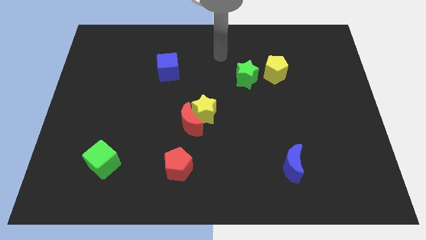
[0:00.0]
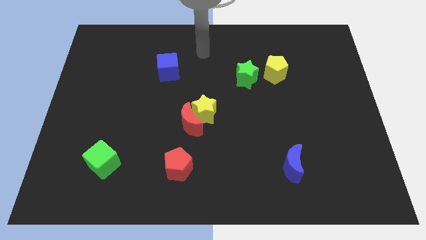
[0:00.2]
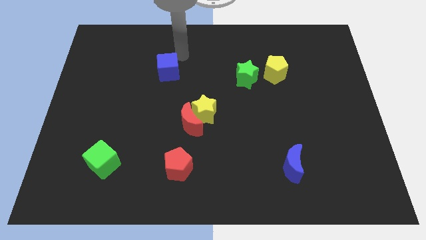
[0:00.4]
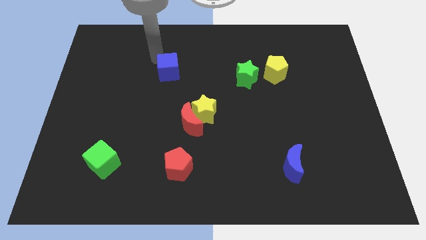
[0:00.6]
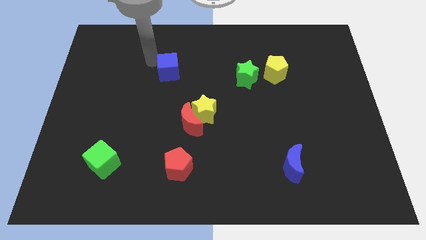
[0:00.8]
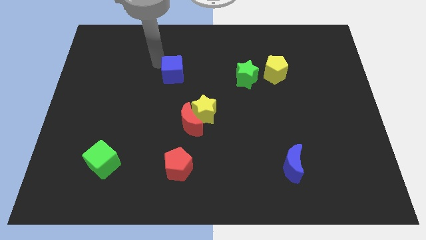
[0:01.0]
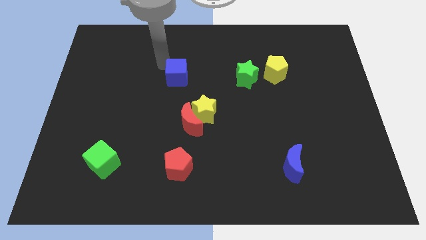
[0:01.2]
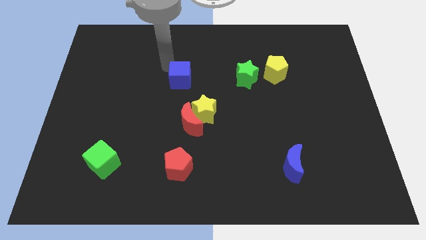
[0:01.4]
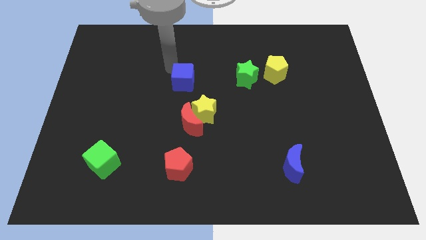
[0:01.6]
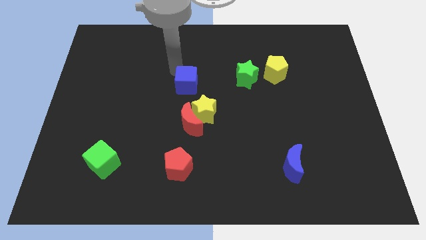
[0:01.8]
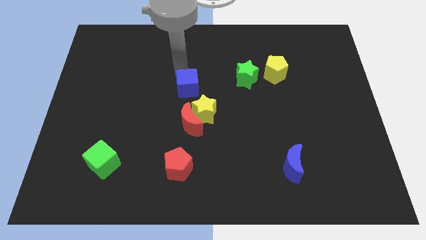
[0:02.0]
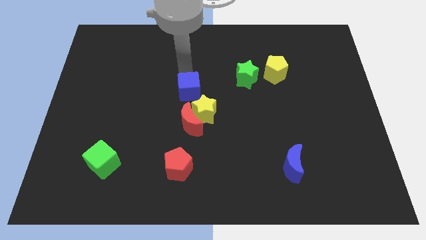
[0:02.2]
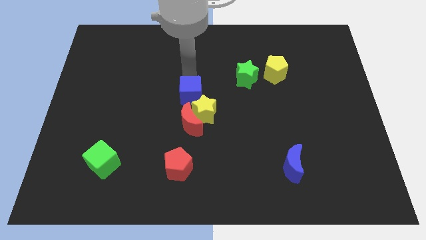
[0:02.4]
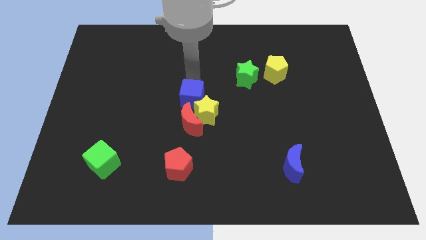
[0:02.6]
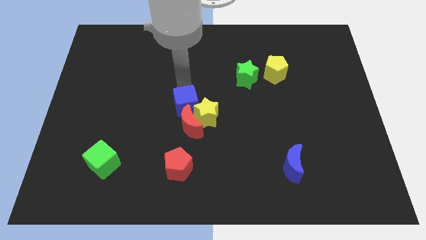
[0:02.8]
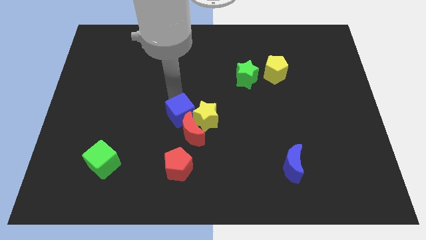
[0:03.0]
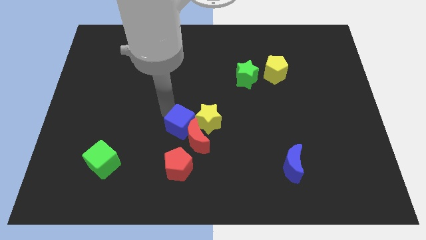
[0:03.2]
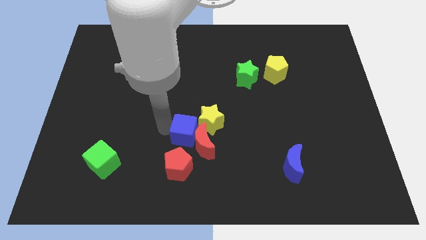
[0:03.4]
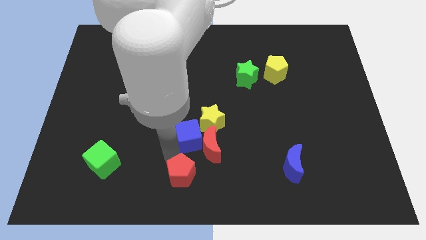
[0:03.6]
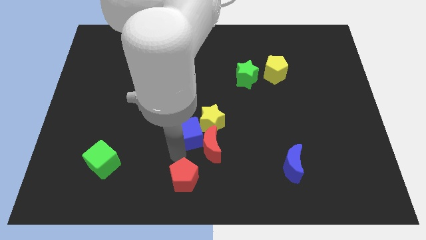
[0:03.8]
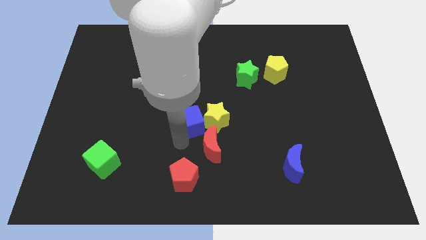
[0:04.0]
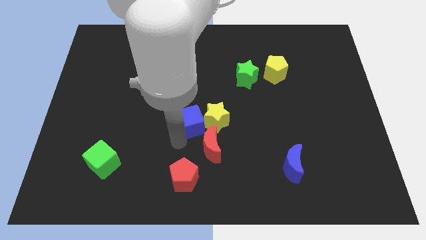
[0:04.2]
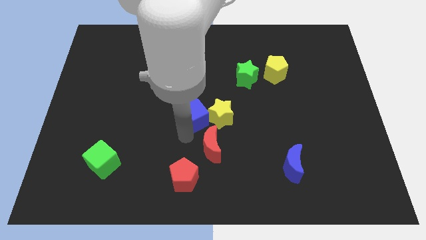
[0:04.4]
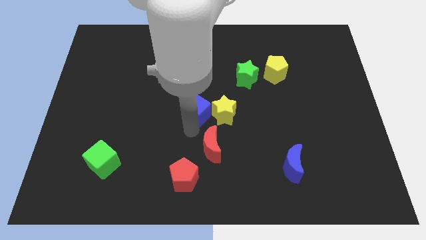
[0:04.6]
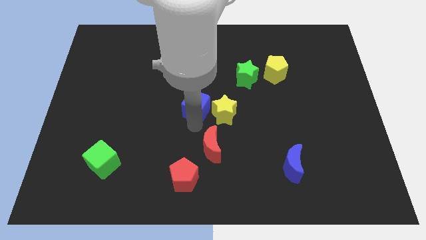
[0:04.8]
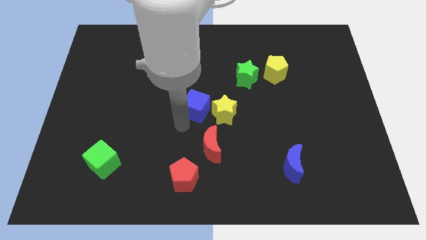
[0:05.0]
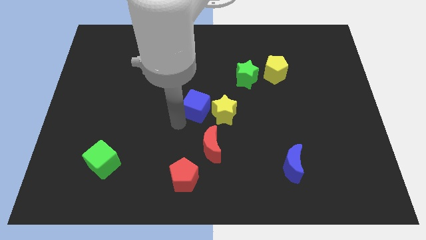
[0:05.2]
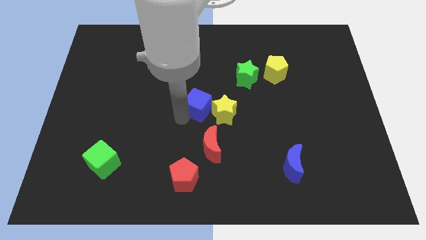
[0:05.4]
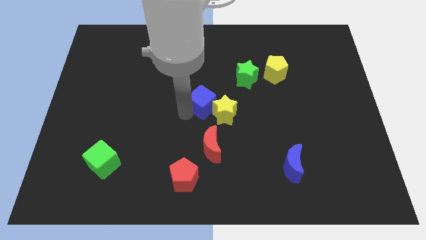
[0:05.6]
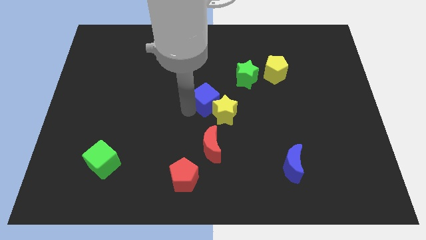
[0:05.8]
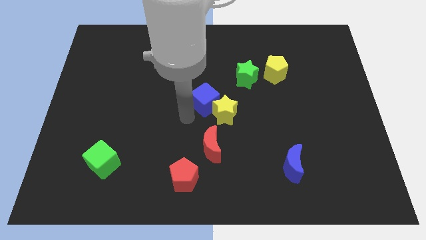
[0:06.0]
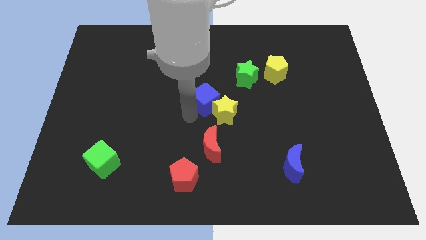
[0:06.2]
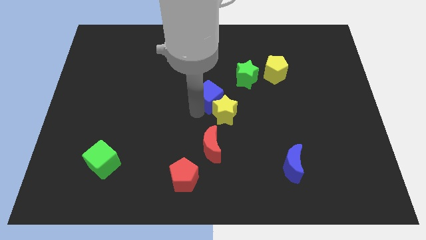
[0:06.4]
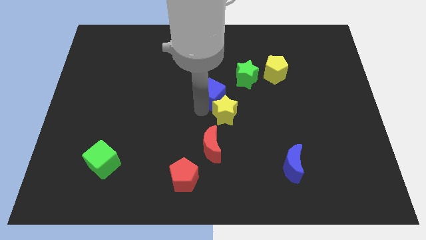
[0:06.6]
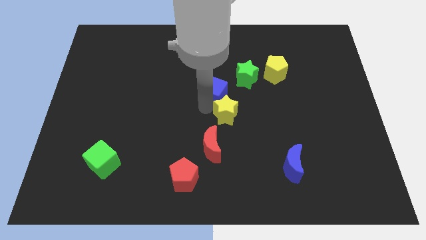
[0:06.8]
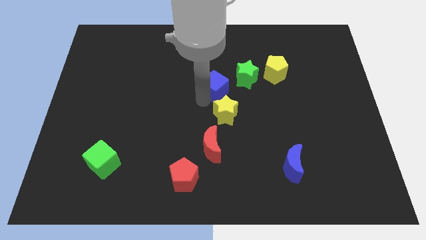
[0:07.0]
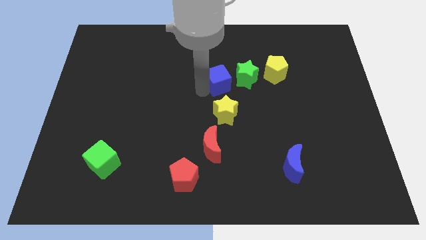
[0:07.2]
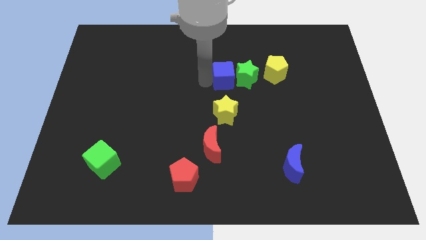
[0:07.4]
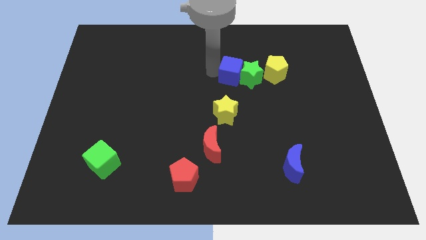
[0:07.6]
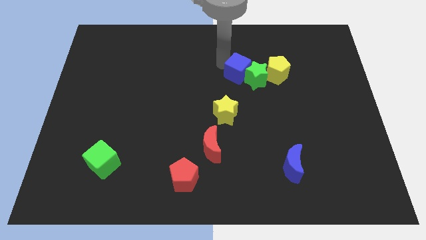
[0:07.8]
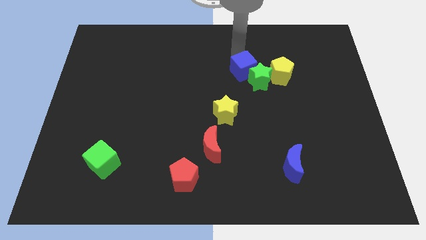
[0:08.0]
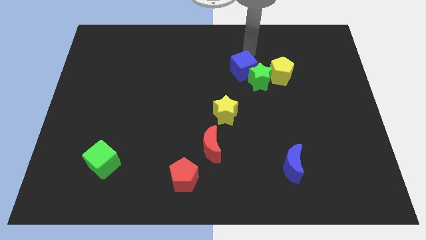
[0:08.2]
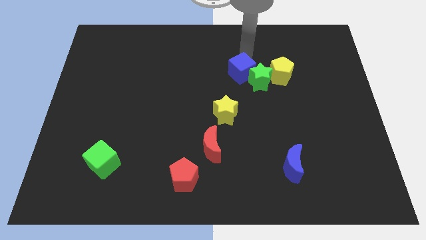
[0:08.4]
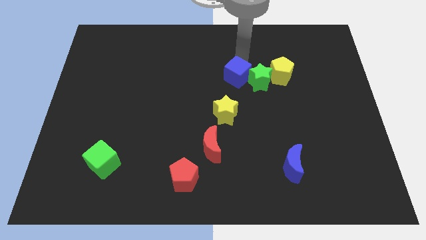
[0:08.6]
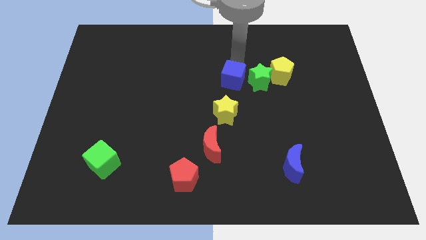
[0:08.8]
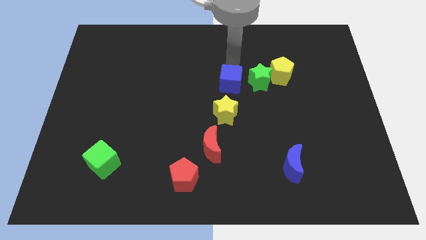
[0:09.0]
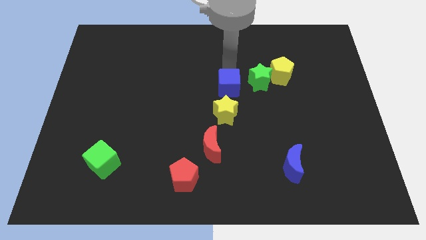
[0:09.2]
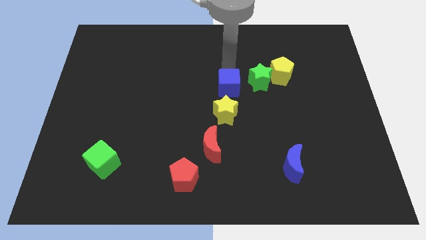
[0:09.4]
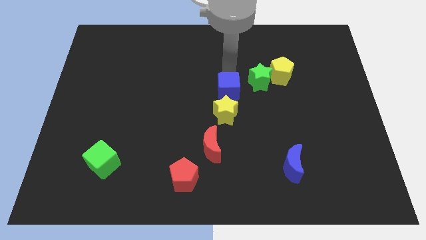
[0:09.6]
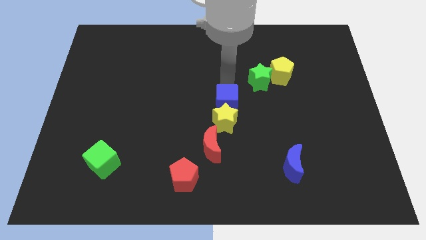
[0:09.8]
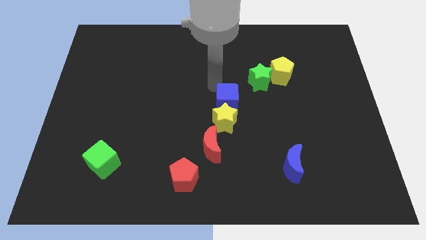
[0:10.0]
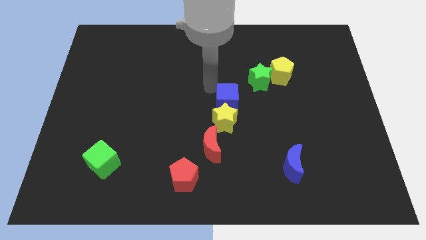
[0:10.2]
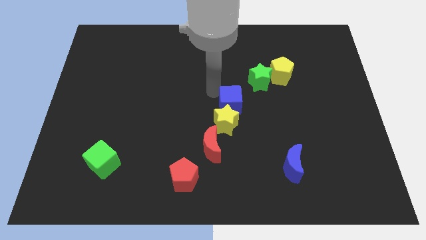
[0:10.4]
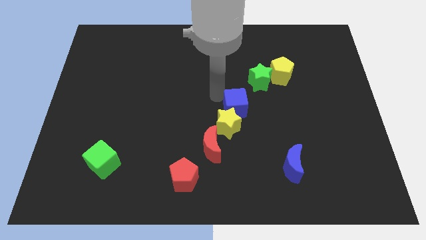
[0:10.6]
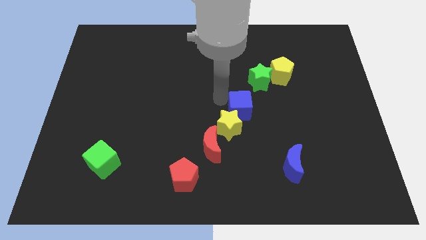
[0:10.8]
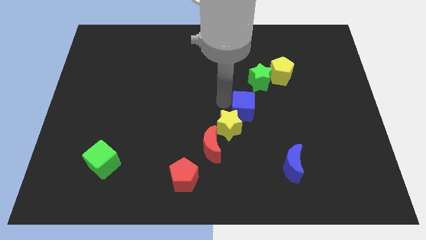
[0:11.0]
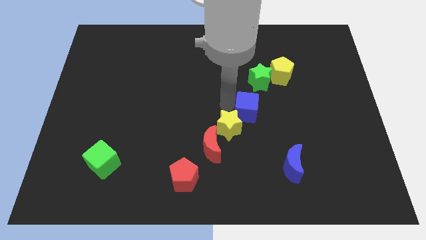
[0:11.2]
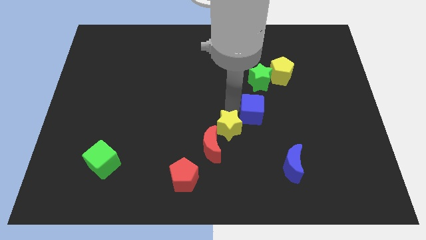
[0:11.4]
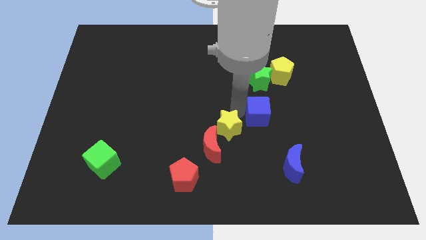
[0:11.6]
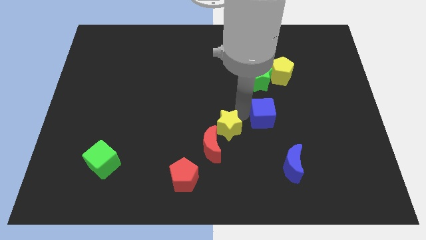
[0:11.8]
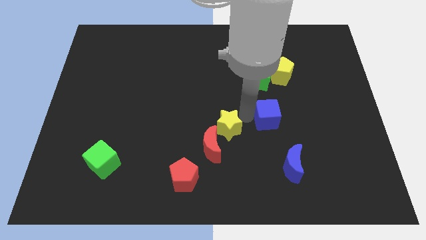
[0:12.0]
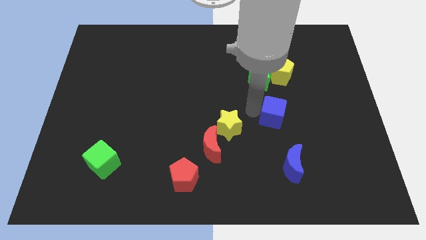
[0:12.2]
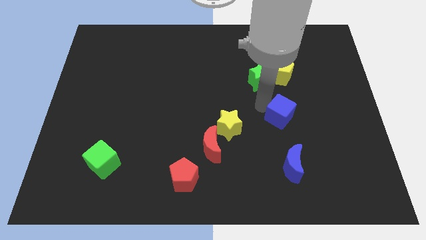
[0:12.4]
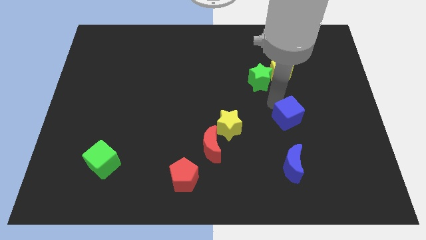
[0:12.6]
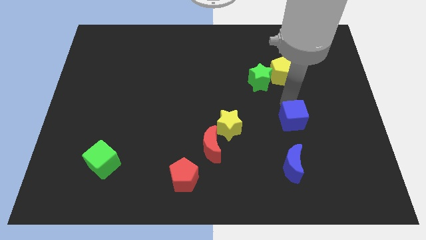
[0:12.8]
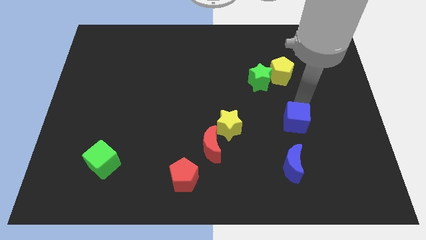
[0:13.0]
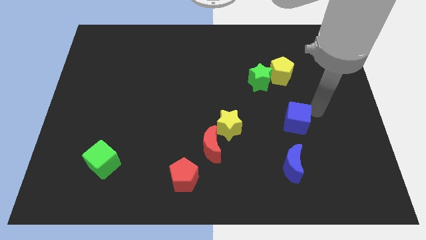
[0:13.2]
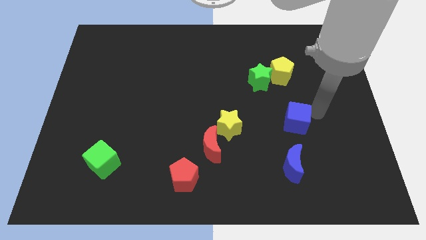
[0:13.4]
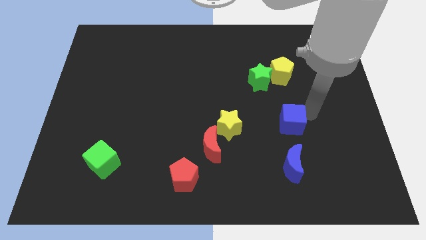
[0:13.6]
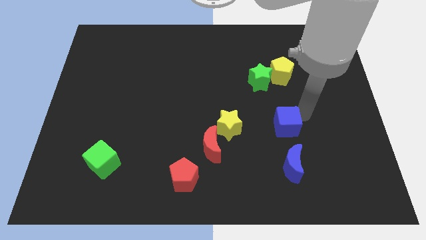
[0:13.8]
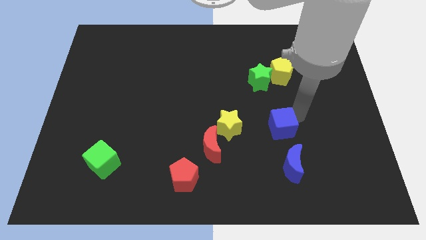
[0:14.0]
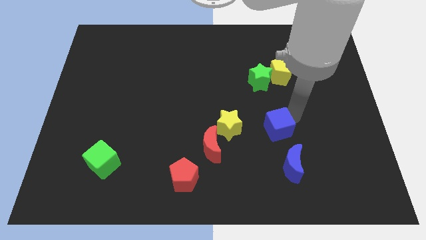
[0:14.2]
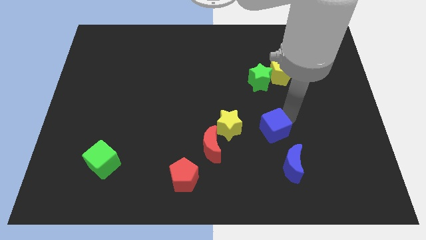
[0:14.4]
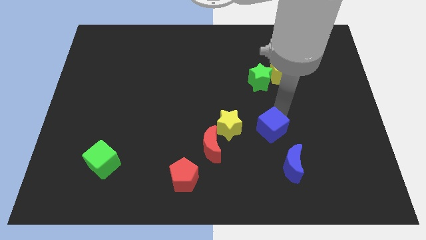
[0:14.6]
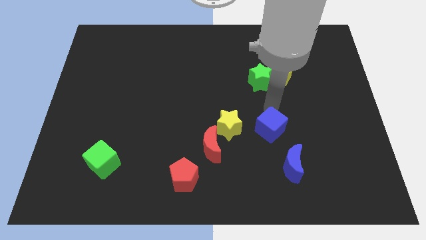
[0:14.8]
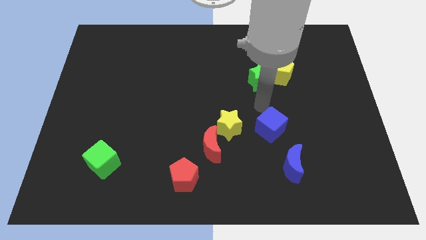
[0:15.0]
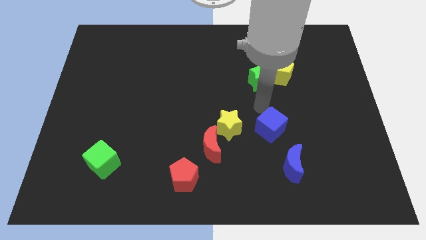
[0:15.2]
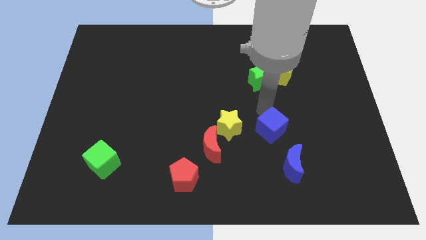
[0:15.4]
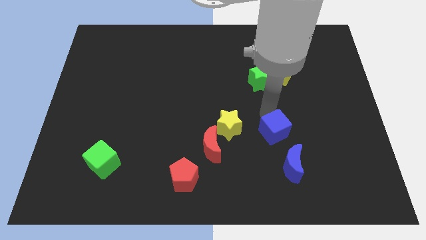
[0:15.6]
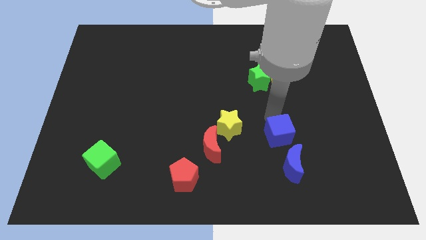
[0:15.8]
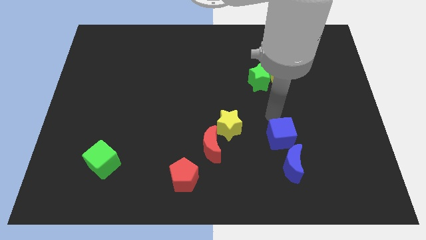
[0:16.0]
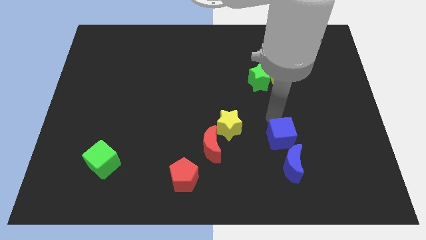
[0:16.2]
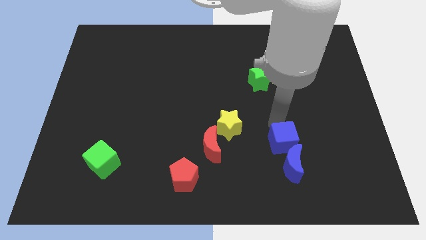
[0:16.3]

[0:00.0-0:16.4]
push the blue cube close to the blue moon
